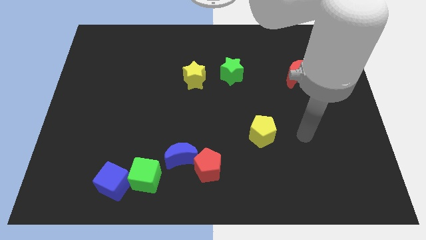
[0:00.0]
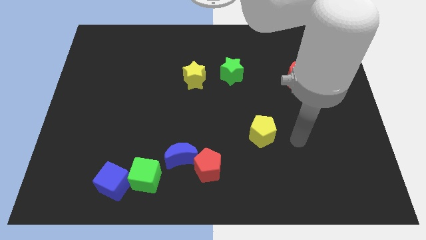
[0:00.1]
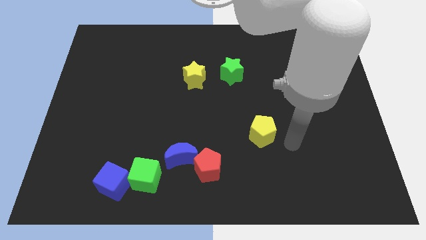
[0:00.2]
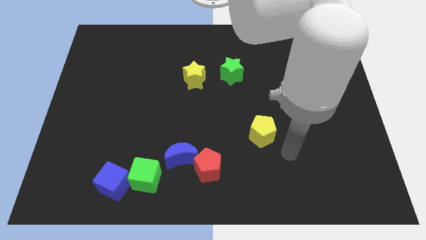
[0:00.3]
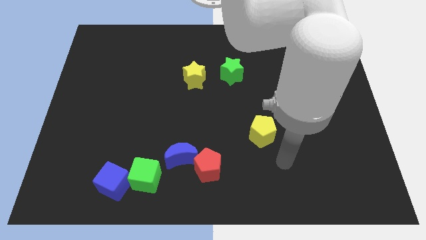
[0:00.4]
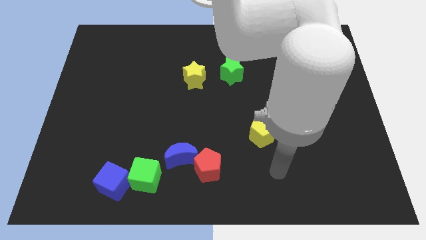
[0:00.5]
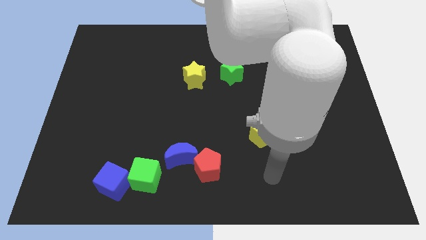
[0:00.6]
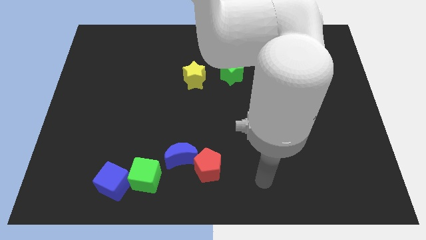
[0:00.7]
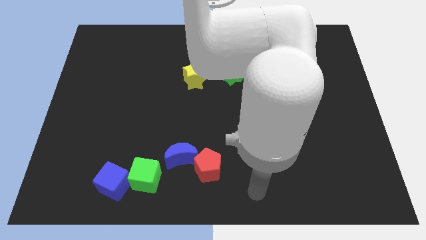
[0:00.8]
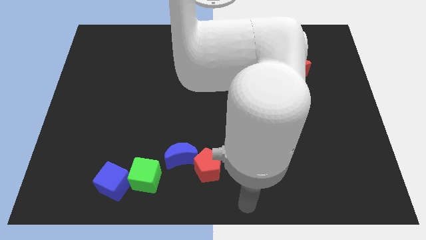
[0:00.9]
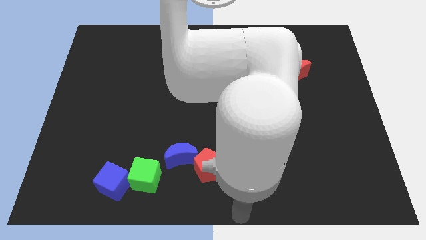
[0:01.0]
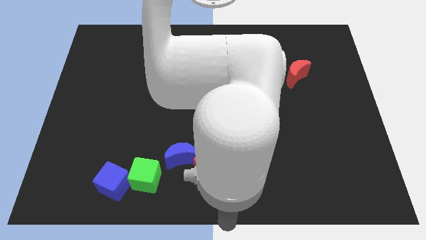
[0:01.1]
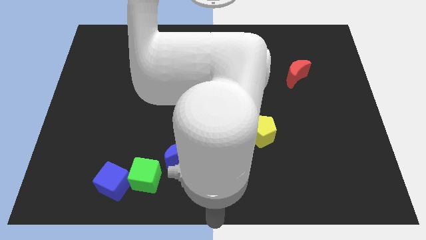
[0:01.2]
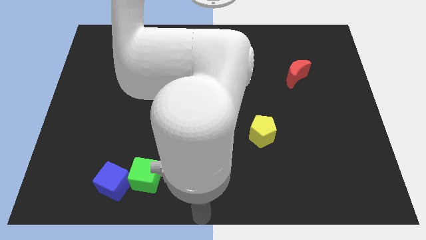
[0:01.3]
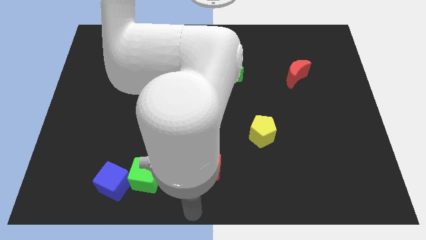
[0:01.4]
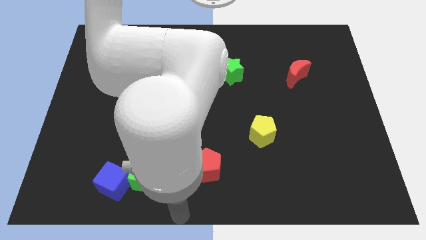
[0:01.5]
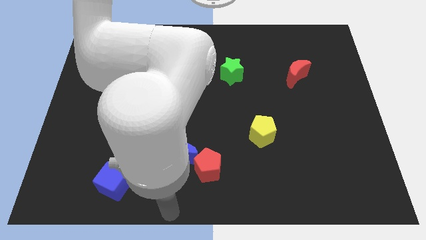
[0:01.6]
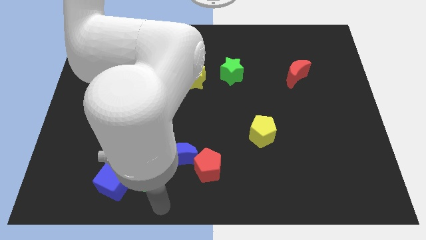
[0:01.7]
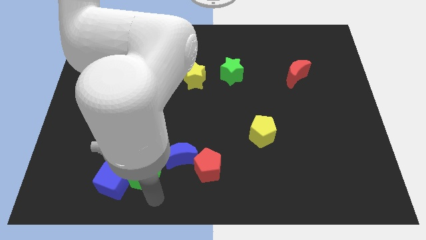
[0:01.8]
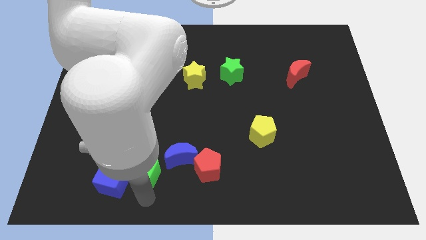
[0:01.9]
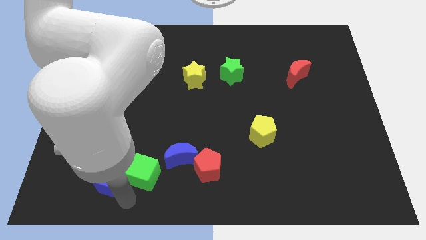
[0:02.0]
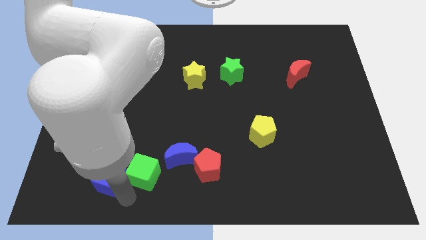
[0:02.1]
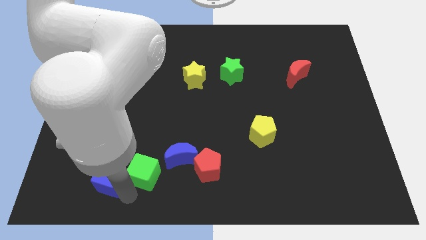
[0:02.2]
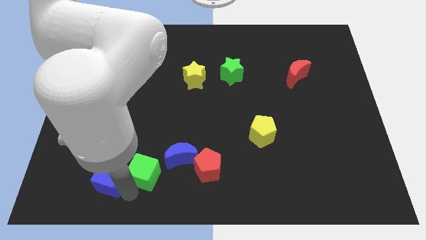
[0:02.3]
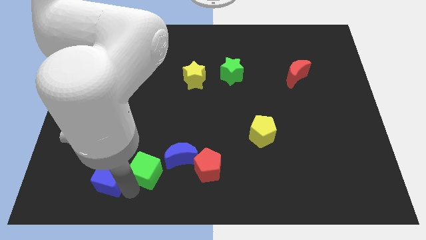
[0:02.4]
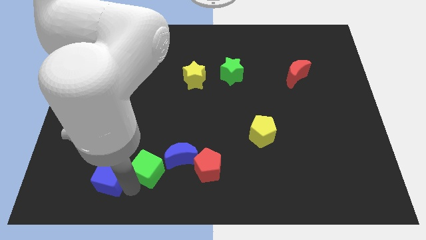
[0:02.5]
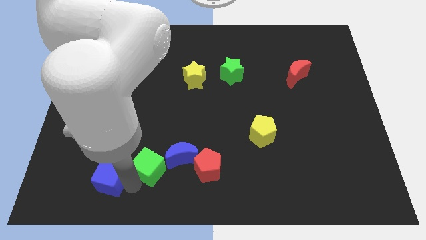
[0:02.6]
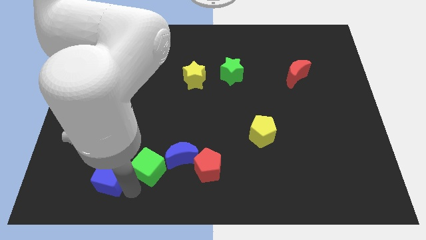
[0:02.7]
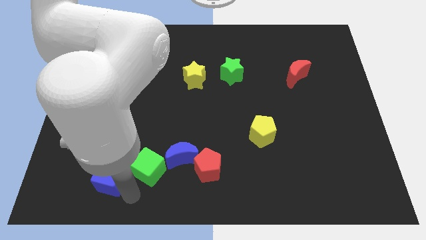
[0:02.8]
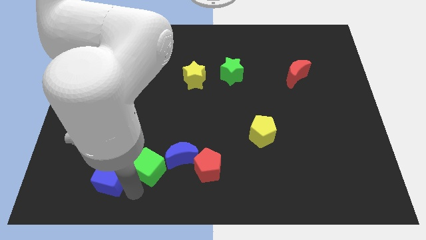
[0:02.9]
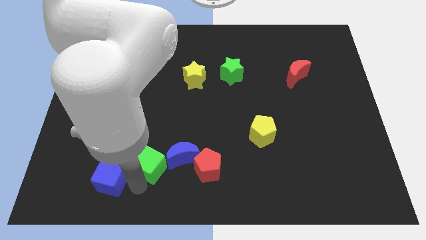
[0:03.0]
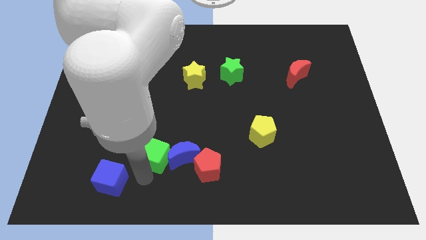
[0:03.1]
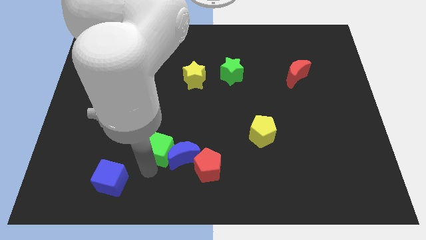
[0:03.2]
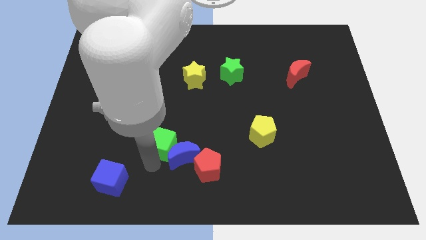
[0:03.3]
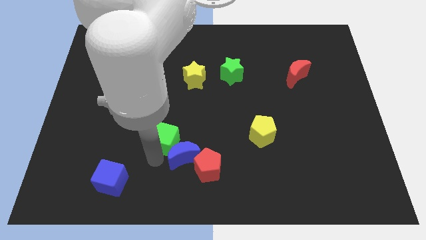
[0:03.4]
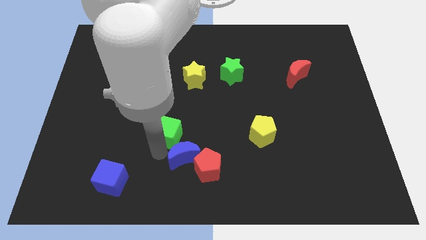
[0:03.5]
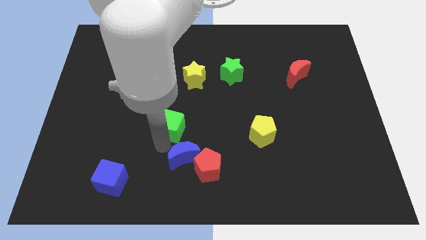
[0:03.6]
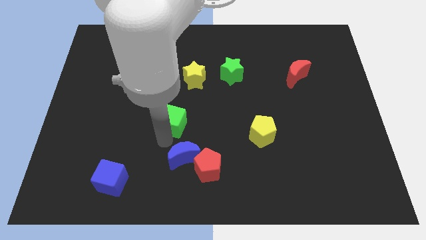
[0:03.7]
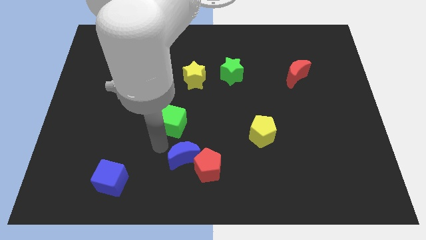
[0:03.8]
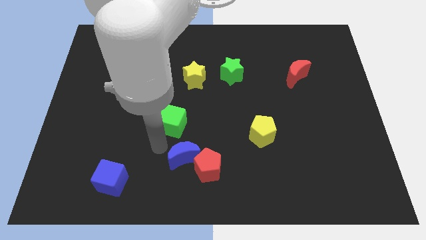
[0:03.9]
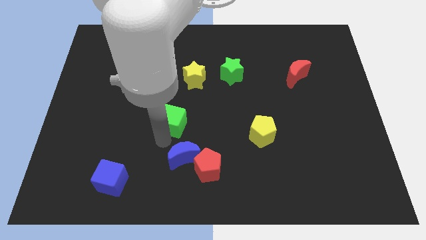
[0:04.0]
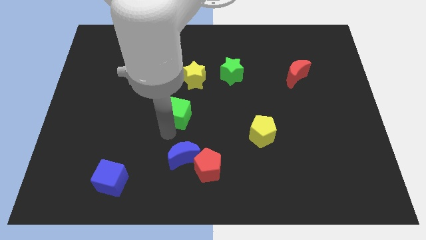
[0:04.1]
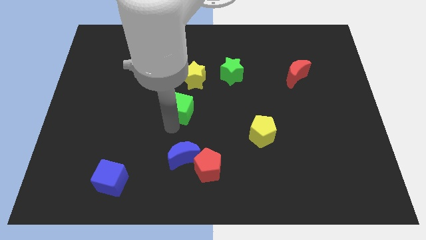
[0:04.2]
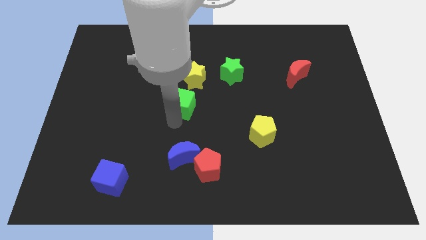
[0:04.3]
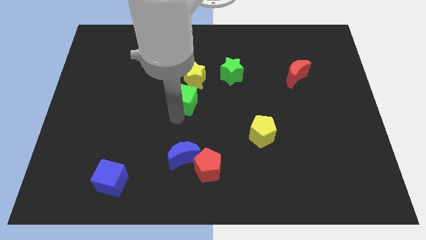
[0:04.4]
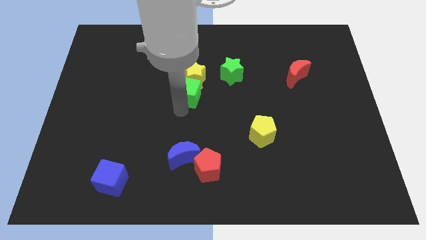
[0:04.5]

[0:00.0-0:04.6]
put the green cube close to the yellow star

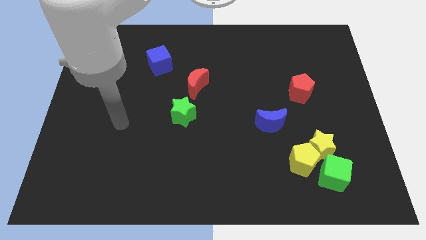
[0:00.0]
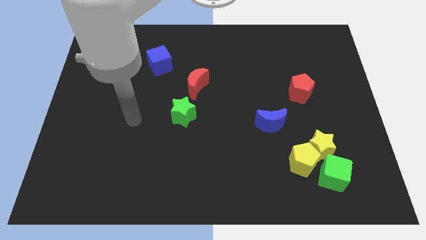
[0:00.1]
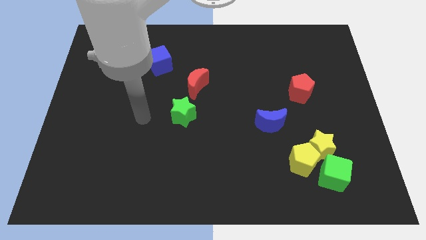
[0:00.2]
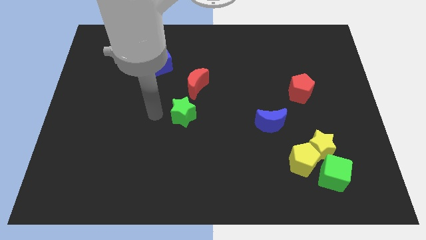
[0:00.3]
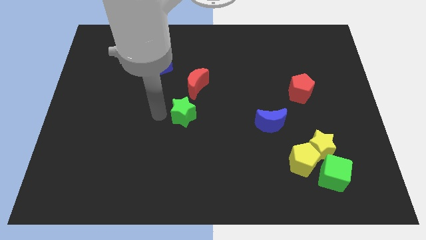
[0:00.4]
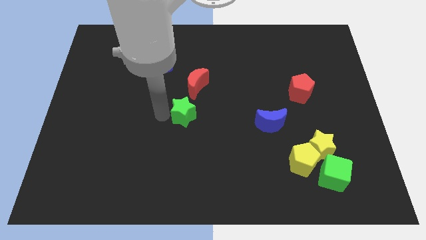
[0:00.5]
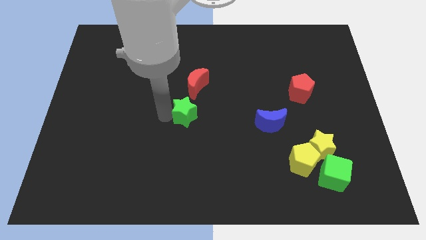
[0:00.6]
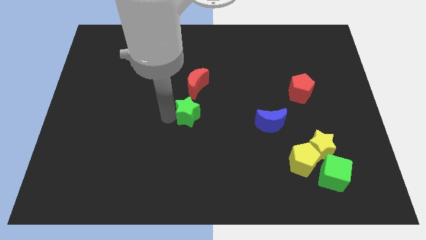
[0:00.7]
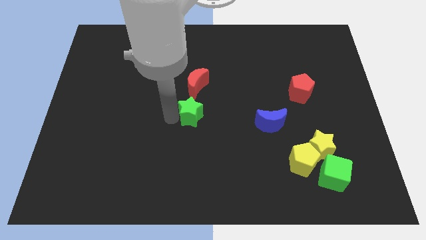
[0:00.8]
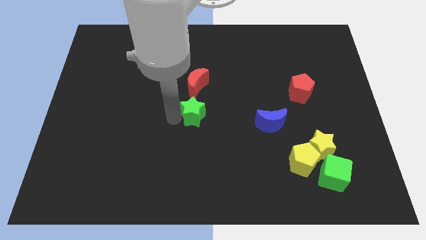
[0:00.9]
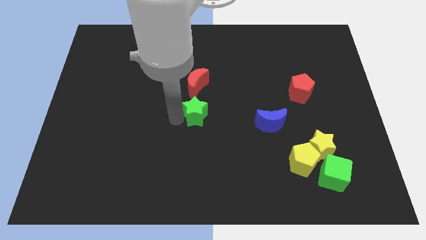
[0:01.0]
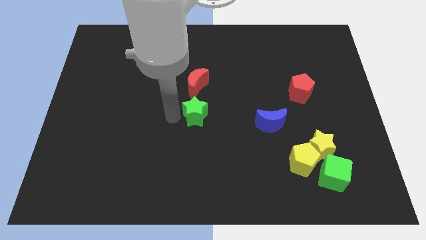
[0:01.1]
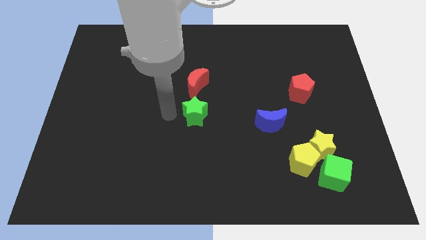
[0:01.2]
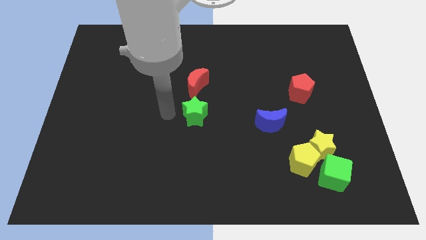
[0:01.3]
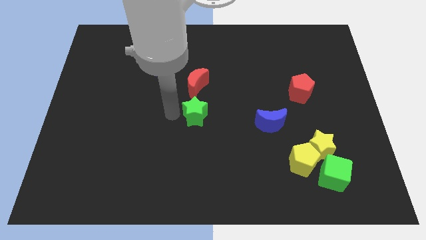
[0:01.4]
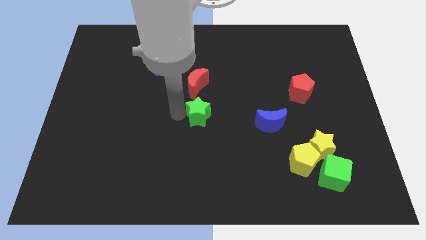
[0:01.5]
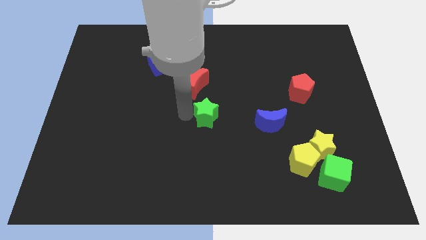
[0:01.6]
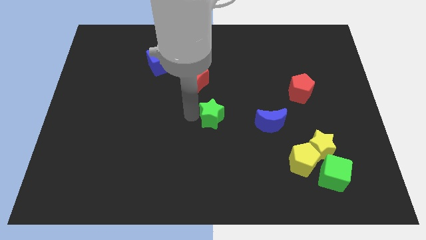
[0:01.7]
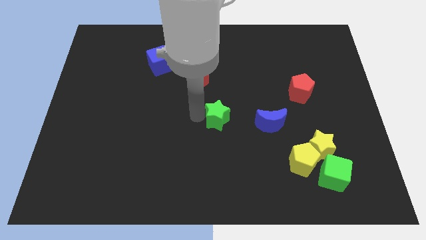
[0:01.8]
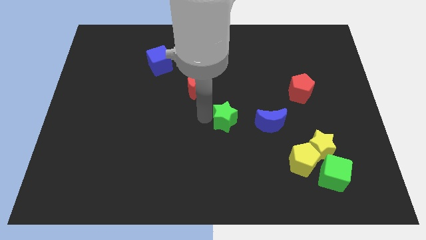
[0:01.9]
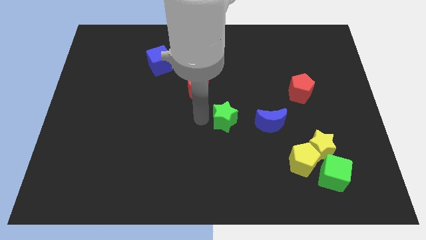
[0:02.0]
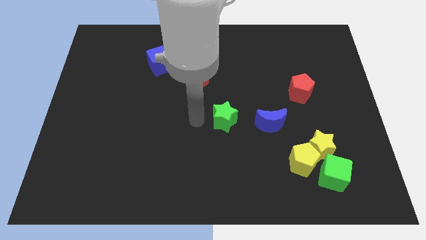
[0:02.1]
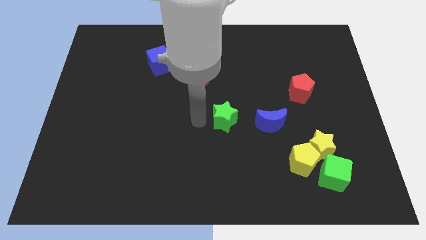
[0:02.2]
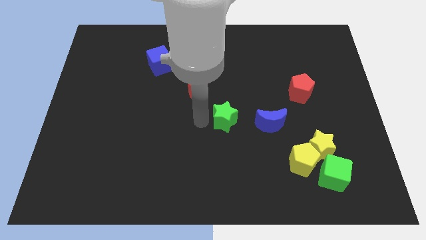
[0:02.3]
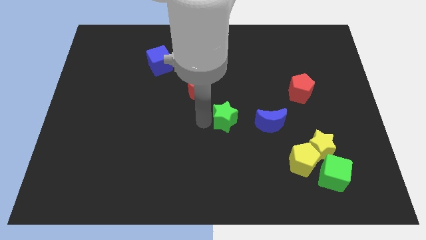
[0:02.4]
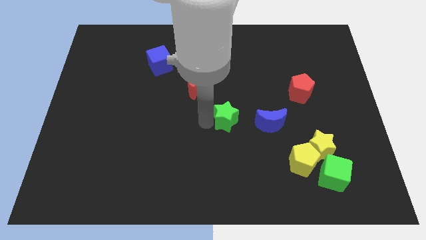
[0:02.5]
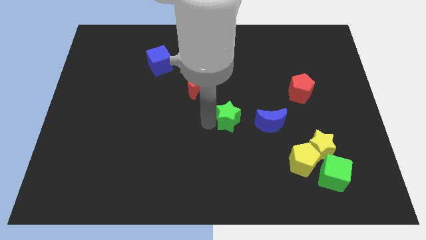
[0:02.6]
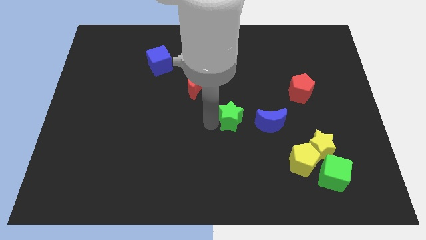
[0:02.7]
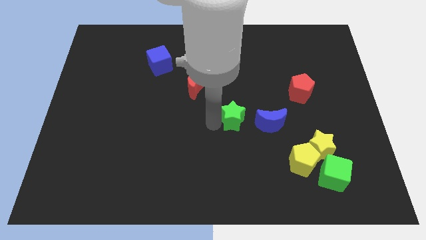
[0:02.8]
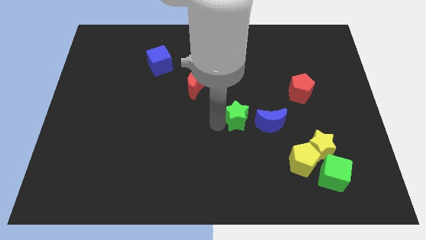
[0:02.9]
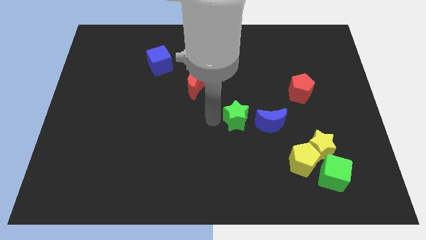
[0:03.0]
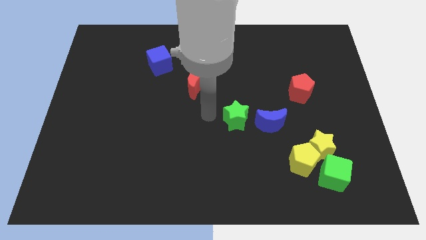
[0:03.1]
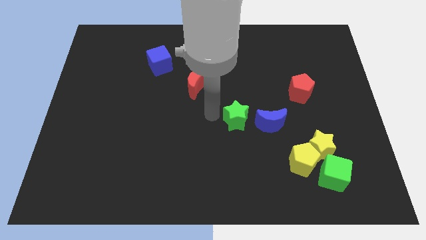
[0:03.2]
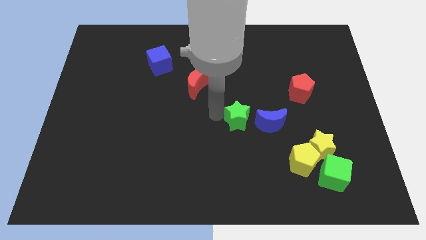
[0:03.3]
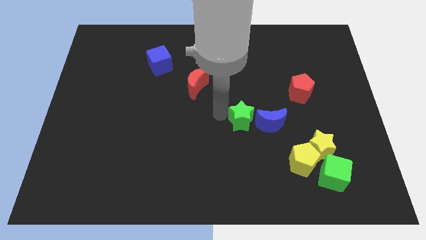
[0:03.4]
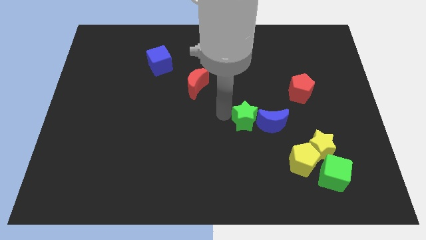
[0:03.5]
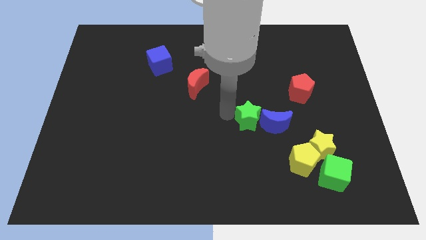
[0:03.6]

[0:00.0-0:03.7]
move the green star to the blue moon
